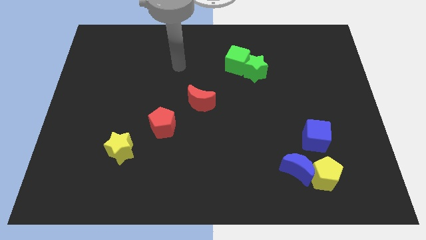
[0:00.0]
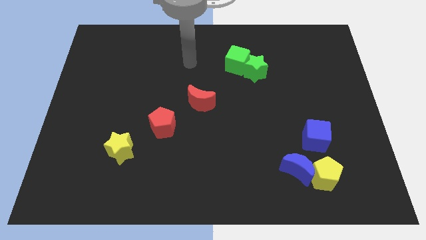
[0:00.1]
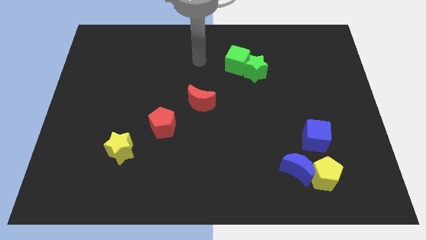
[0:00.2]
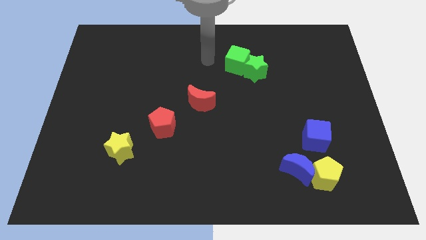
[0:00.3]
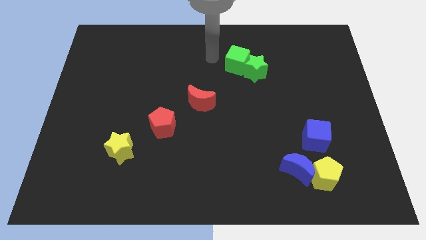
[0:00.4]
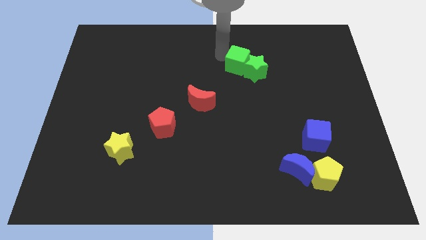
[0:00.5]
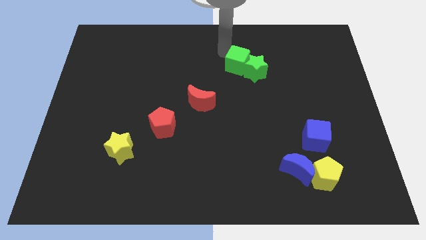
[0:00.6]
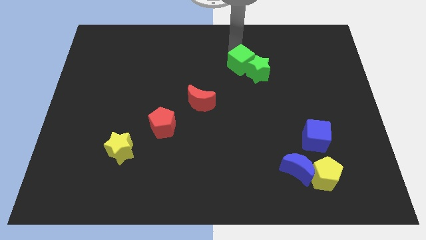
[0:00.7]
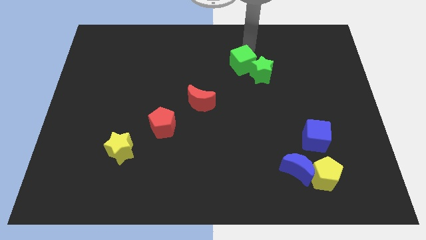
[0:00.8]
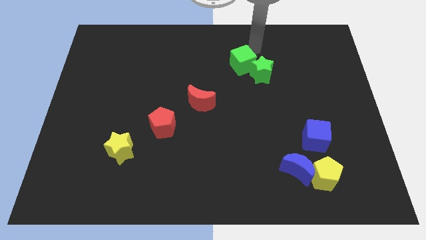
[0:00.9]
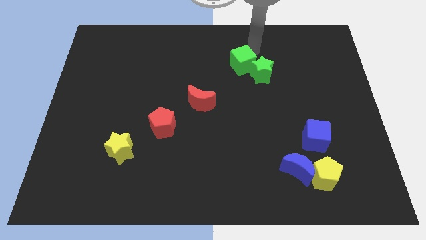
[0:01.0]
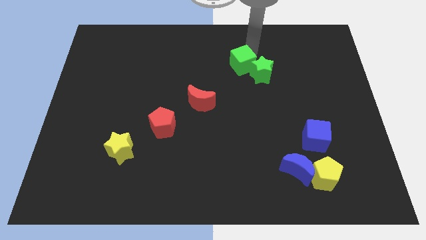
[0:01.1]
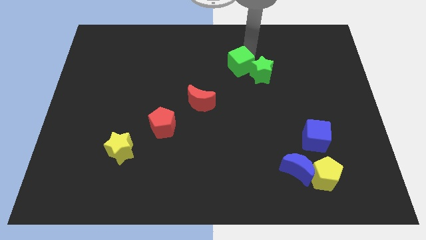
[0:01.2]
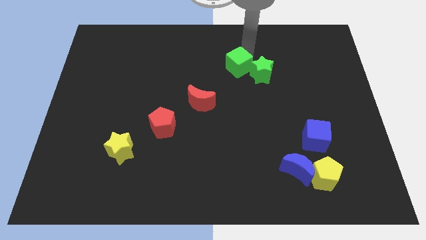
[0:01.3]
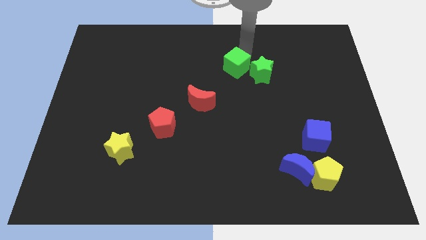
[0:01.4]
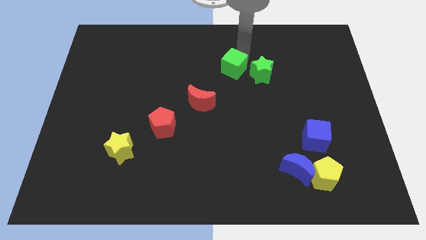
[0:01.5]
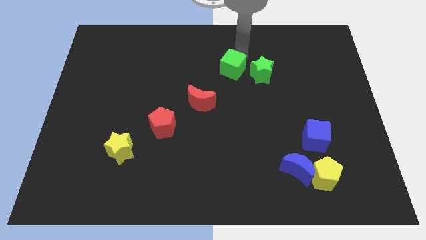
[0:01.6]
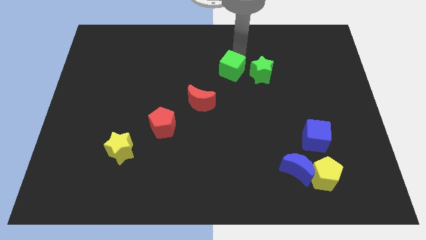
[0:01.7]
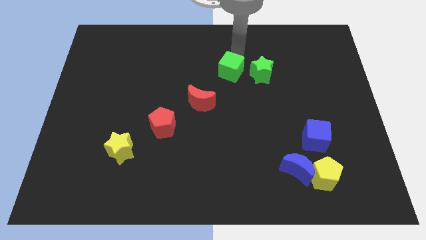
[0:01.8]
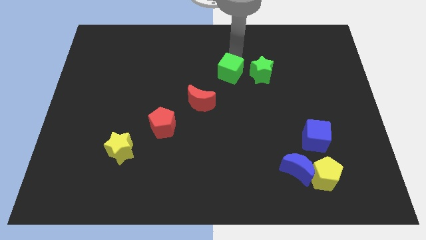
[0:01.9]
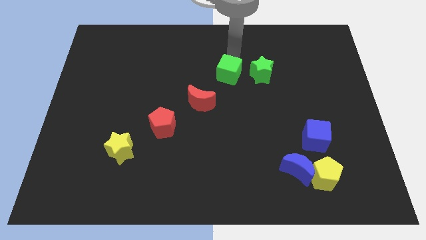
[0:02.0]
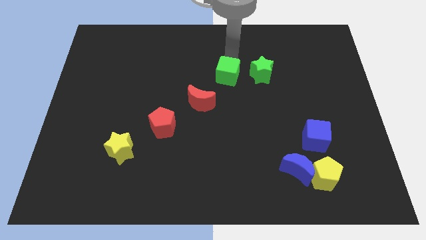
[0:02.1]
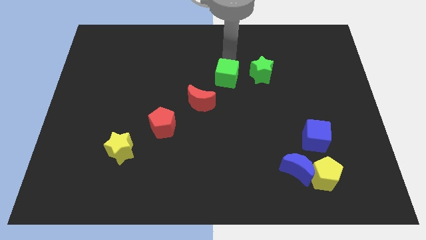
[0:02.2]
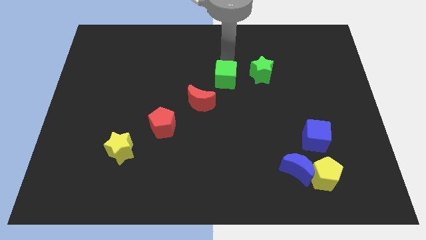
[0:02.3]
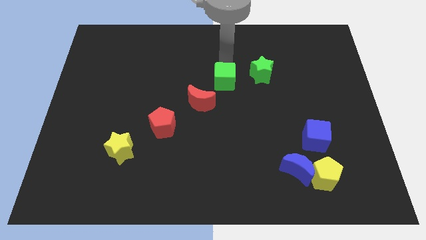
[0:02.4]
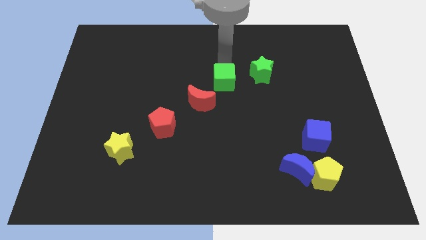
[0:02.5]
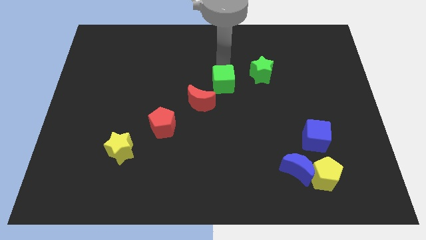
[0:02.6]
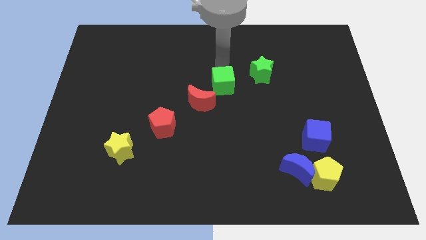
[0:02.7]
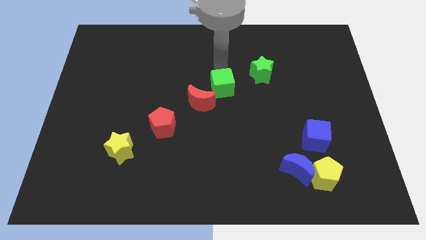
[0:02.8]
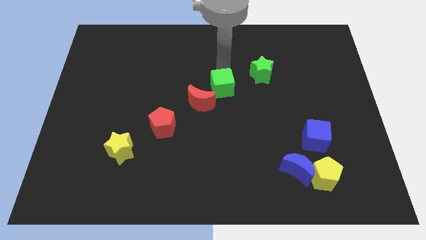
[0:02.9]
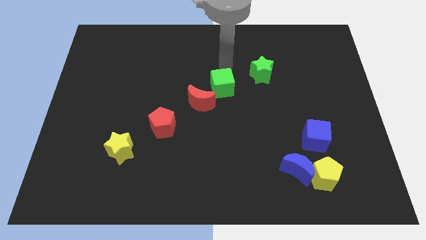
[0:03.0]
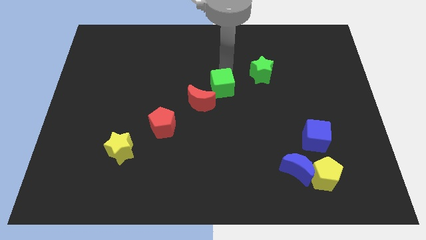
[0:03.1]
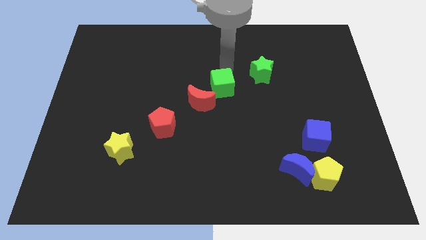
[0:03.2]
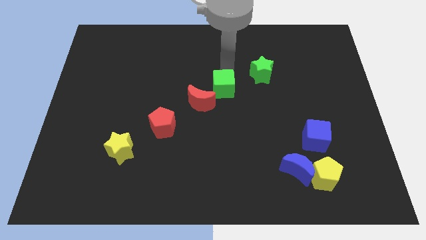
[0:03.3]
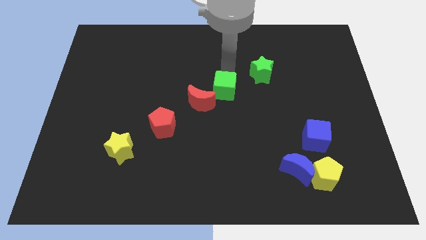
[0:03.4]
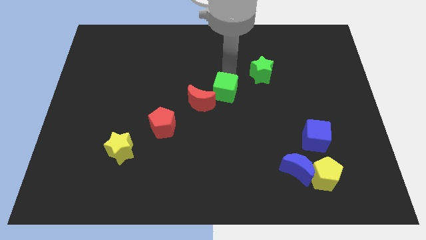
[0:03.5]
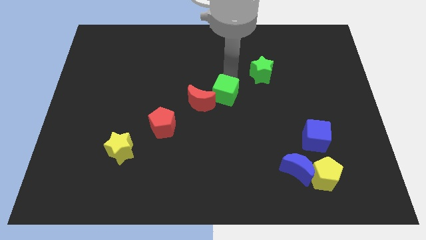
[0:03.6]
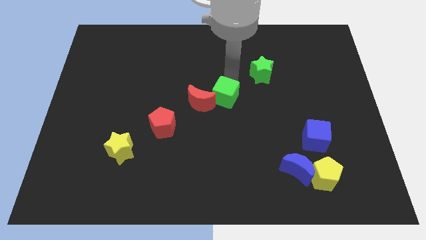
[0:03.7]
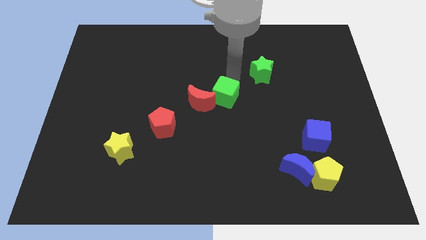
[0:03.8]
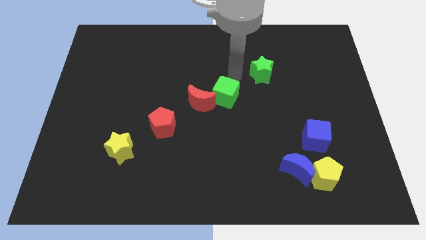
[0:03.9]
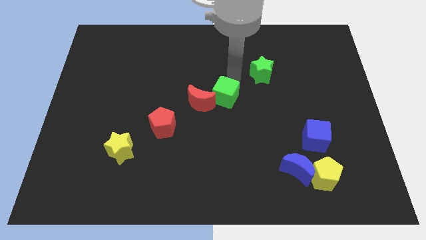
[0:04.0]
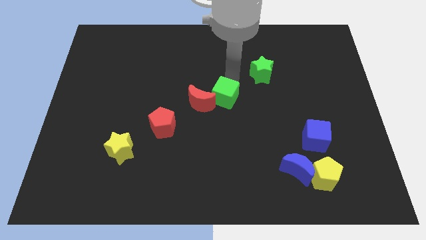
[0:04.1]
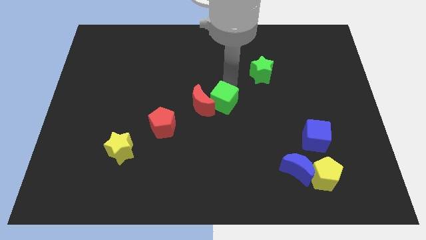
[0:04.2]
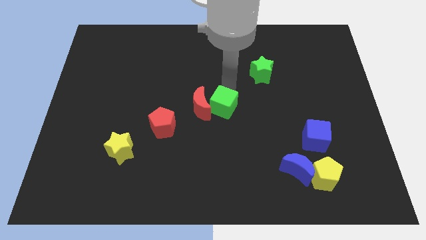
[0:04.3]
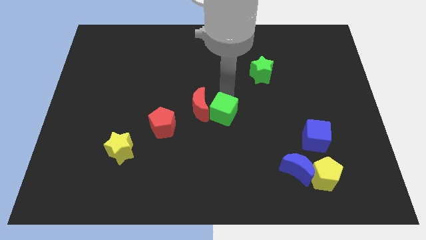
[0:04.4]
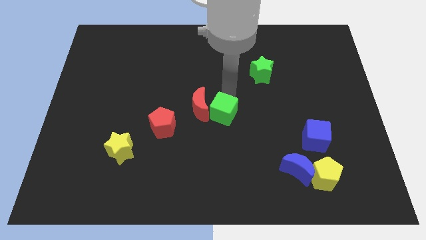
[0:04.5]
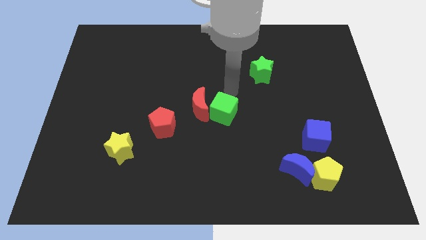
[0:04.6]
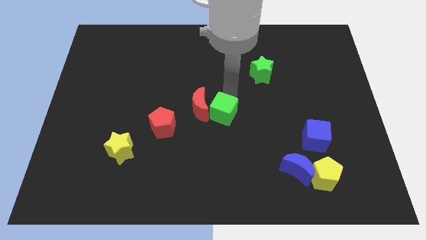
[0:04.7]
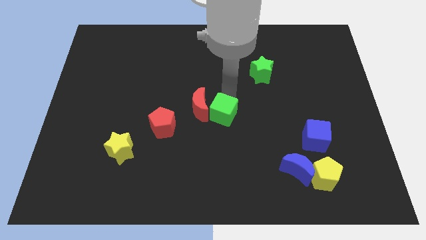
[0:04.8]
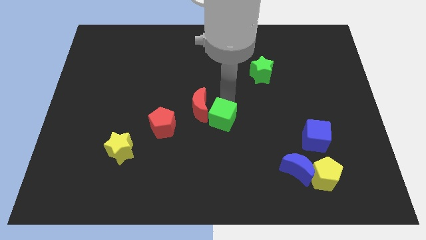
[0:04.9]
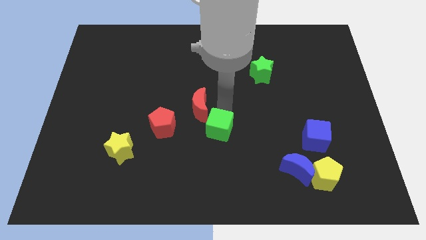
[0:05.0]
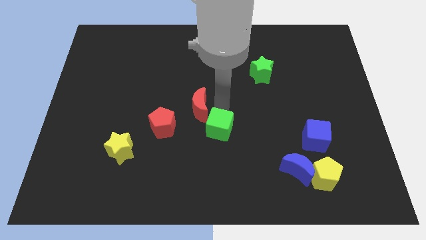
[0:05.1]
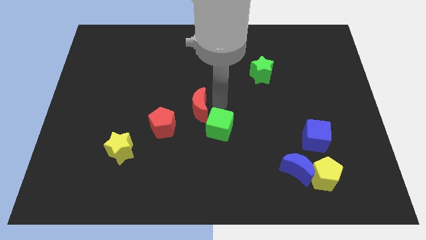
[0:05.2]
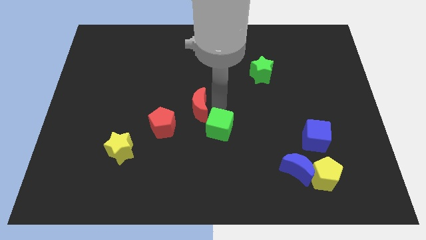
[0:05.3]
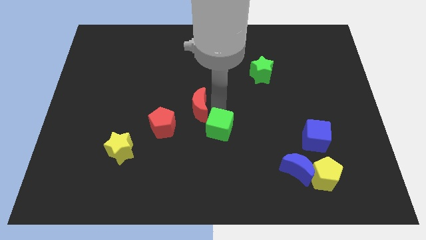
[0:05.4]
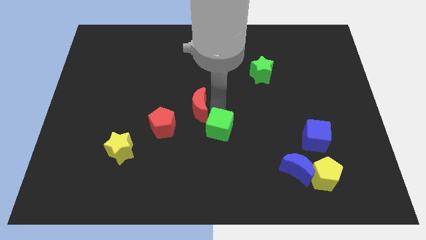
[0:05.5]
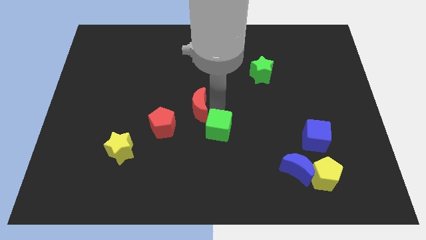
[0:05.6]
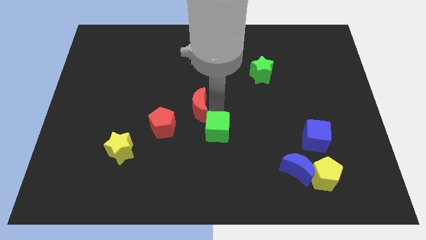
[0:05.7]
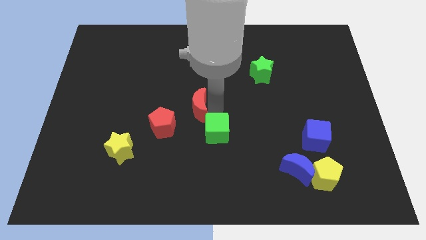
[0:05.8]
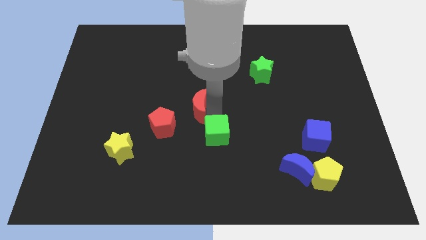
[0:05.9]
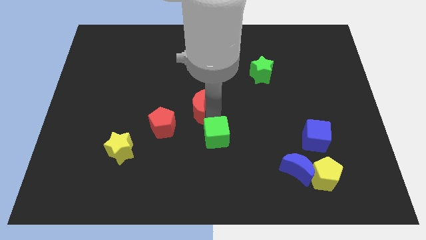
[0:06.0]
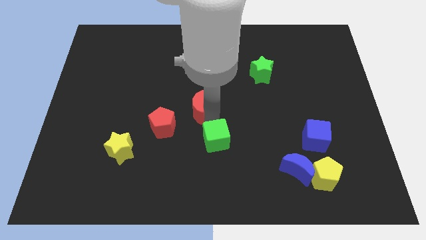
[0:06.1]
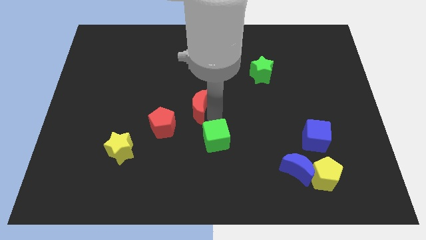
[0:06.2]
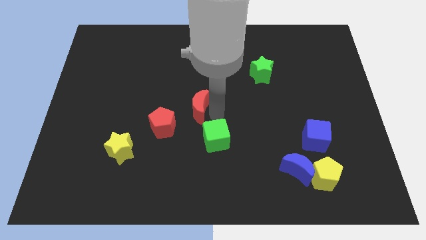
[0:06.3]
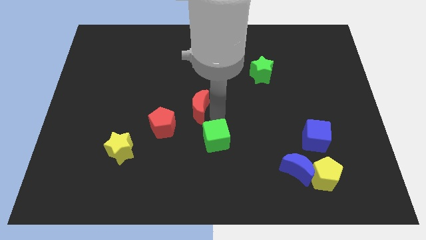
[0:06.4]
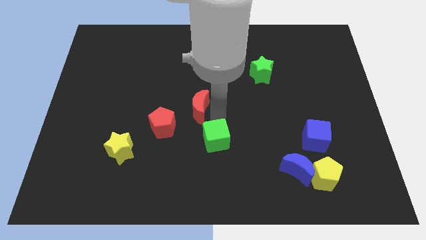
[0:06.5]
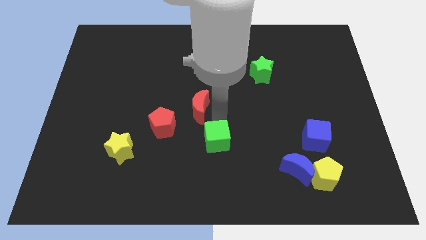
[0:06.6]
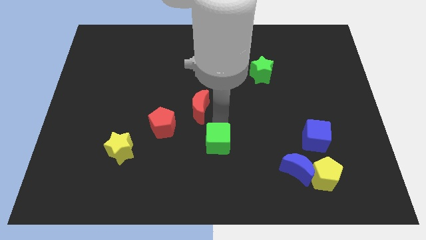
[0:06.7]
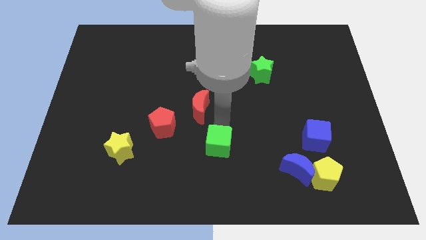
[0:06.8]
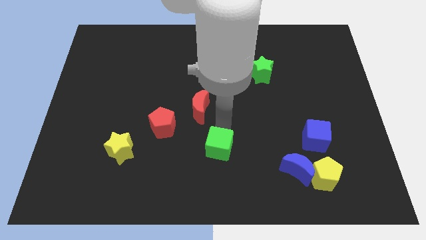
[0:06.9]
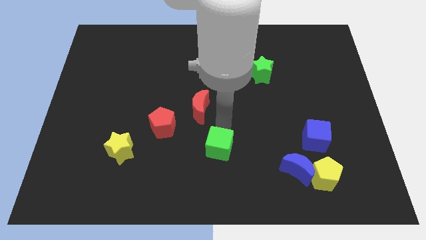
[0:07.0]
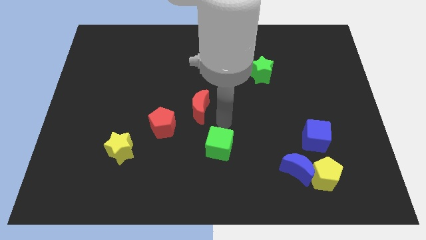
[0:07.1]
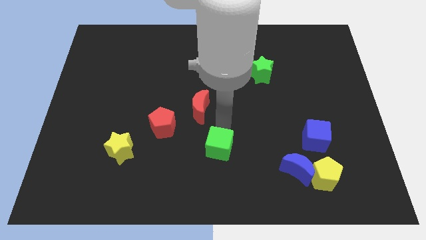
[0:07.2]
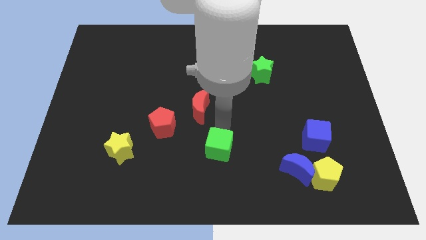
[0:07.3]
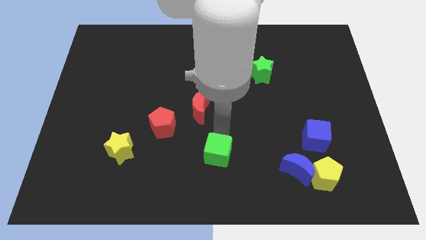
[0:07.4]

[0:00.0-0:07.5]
slide the green cube to the bottom
